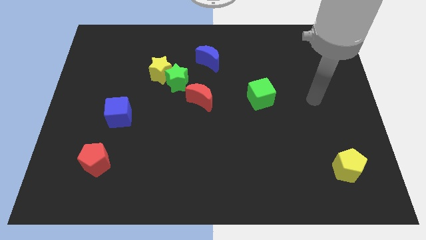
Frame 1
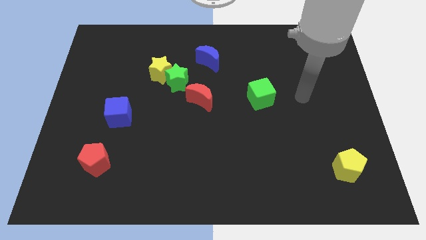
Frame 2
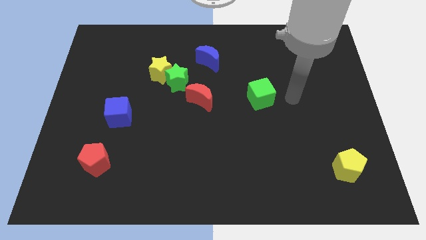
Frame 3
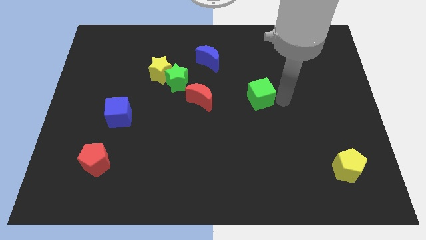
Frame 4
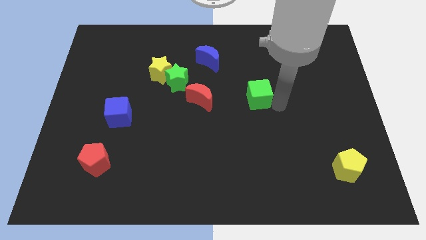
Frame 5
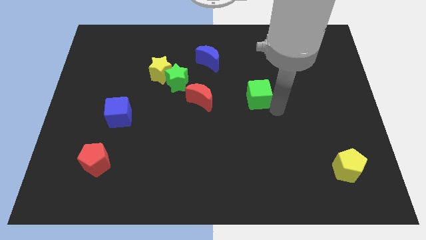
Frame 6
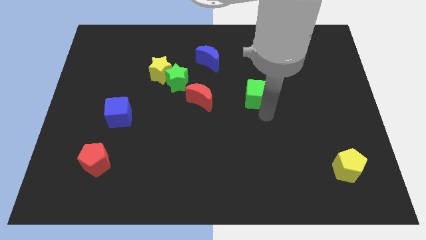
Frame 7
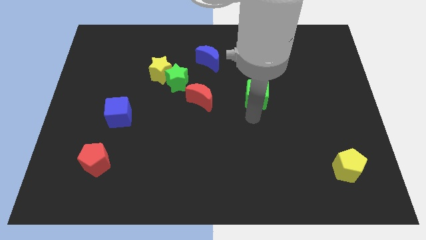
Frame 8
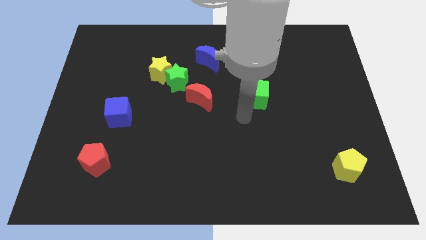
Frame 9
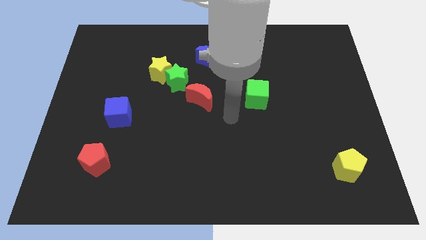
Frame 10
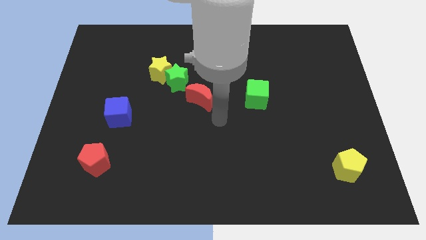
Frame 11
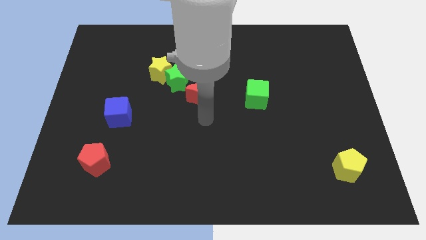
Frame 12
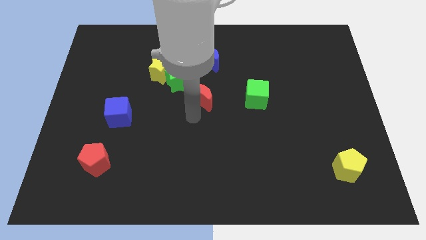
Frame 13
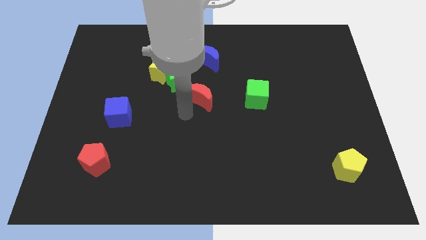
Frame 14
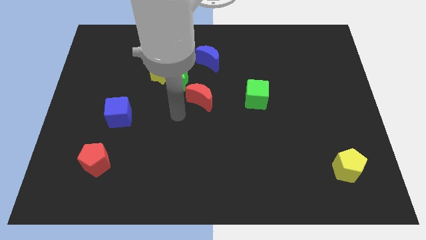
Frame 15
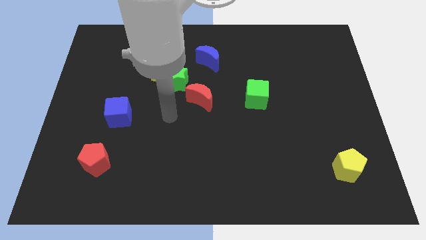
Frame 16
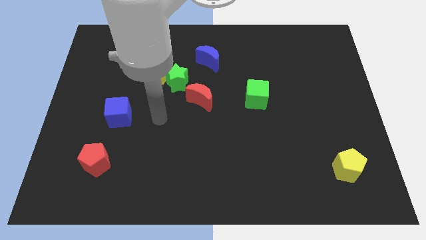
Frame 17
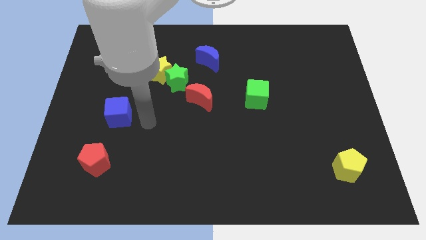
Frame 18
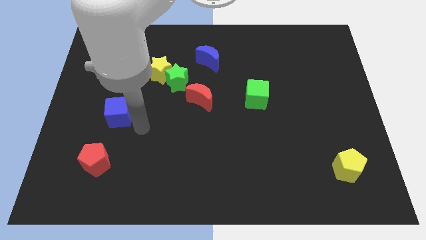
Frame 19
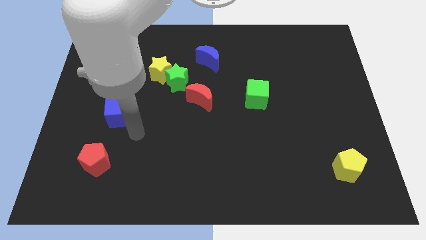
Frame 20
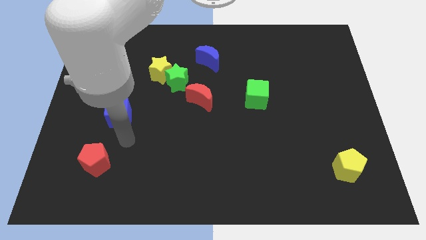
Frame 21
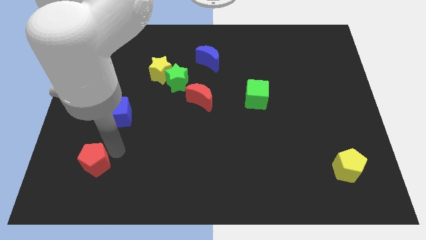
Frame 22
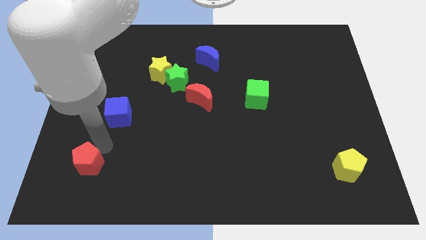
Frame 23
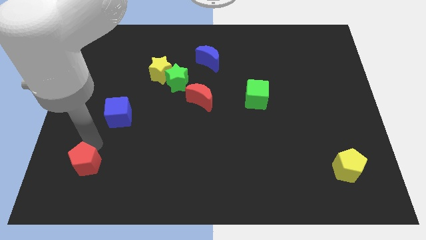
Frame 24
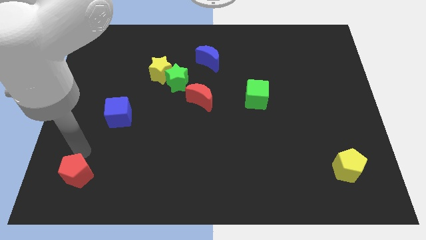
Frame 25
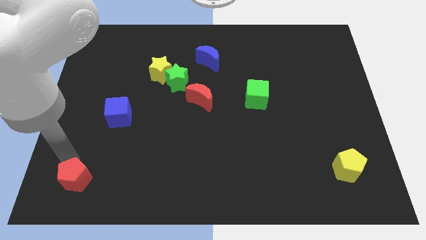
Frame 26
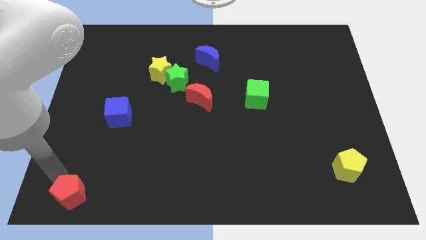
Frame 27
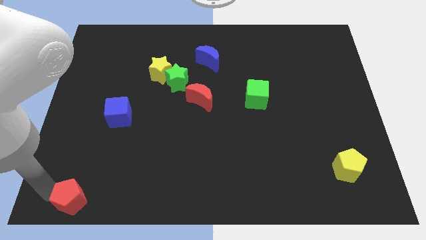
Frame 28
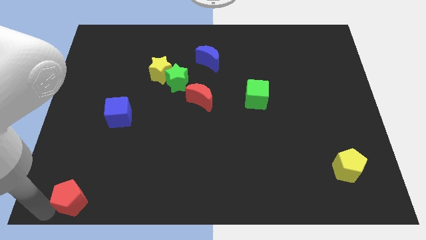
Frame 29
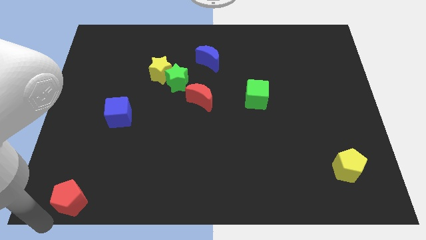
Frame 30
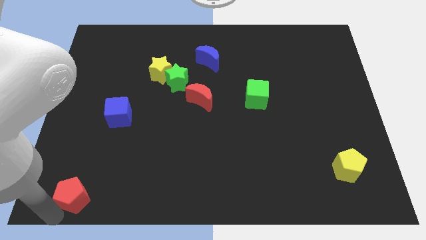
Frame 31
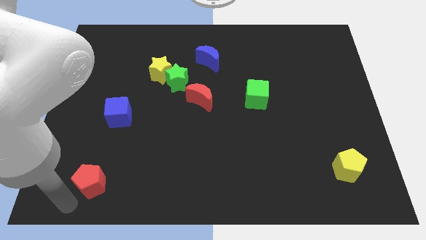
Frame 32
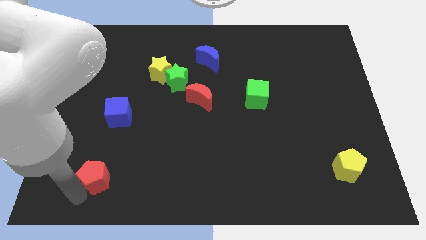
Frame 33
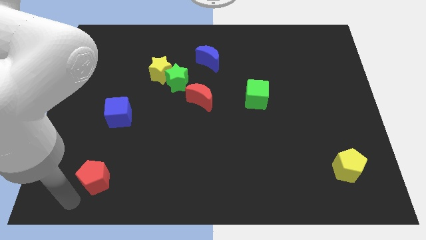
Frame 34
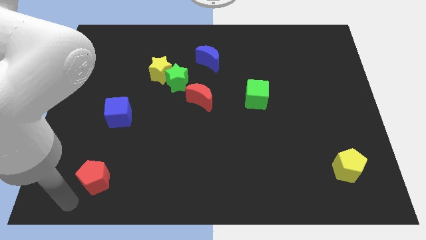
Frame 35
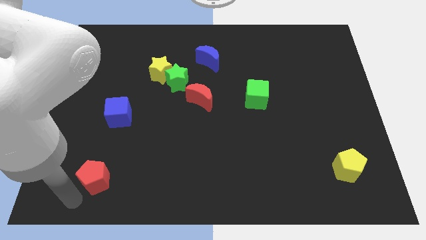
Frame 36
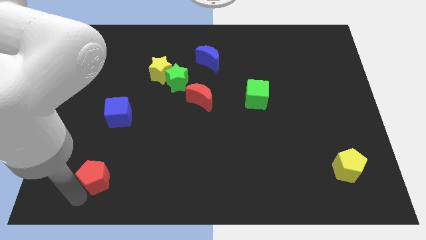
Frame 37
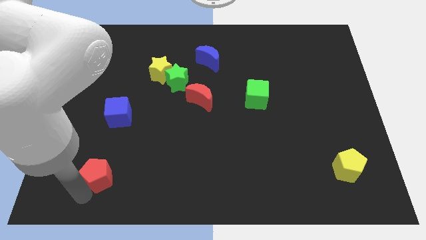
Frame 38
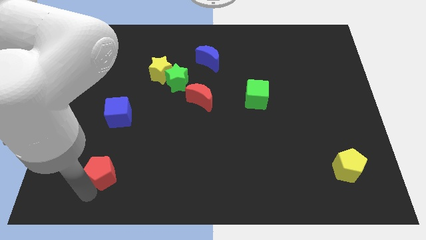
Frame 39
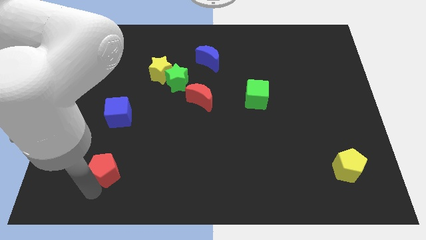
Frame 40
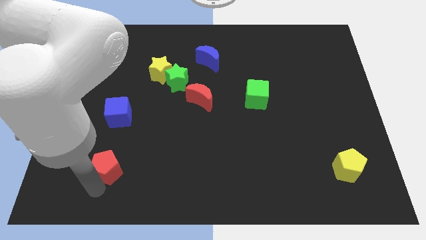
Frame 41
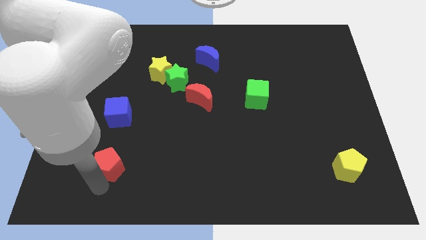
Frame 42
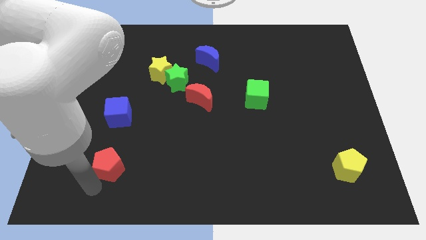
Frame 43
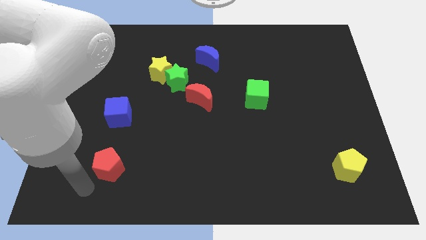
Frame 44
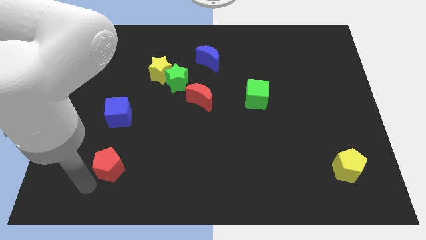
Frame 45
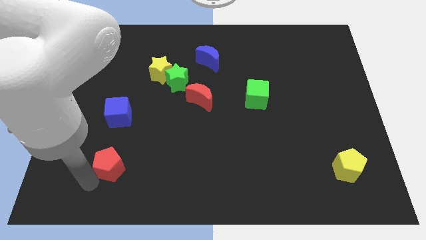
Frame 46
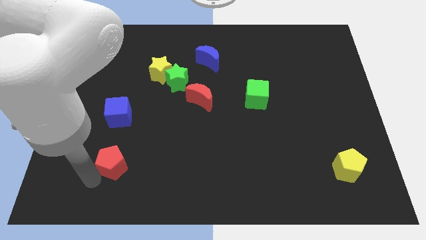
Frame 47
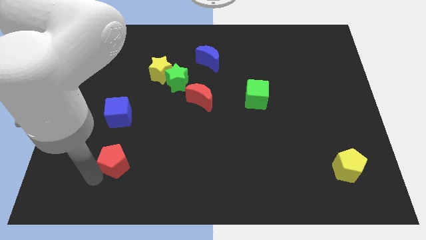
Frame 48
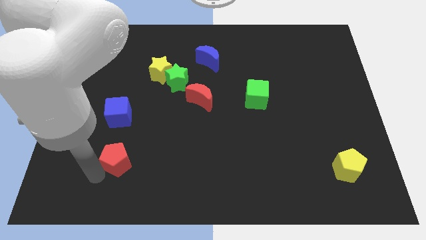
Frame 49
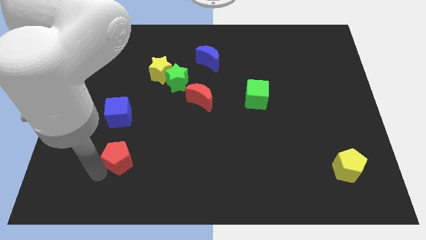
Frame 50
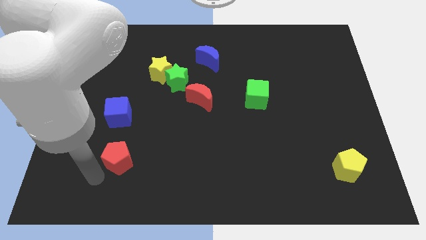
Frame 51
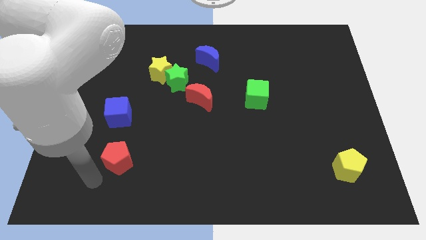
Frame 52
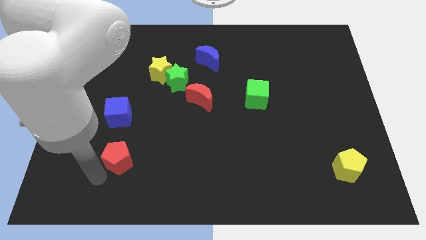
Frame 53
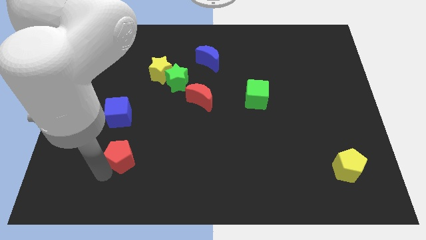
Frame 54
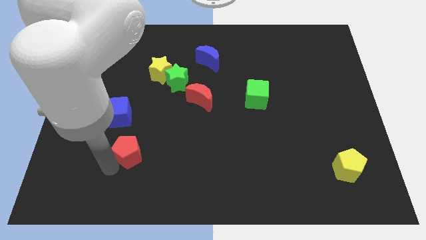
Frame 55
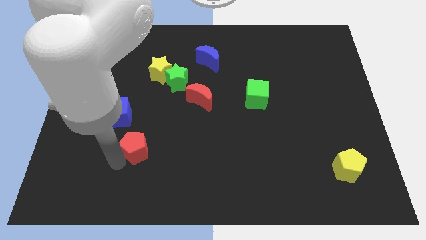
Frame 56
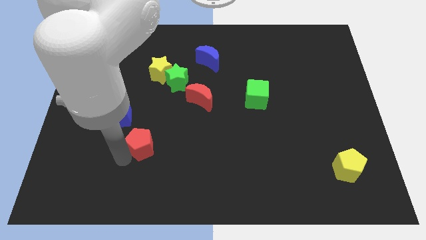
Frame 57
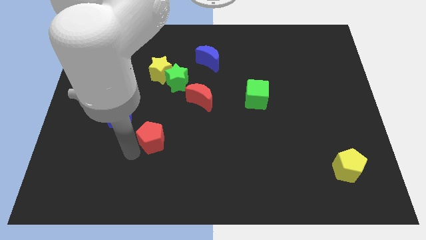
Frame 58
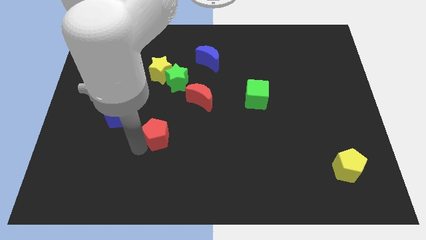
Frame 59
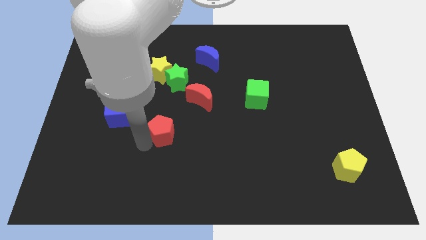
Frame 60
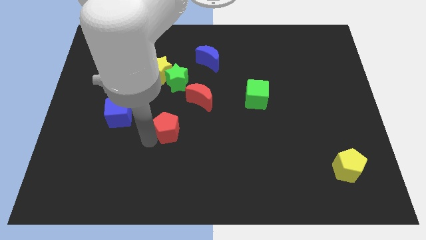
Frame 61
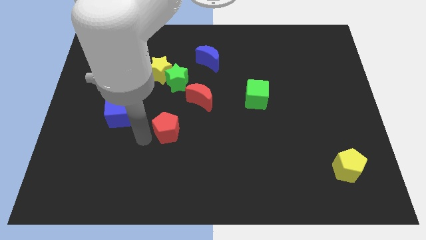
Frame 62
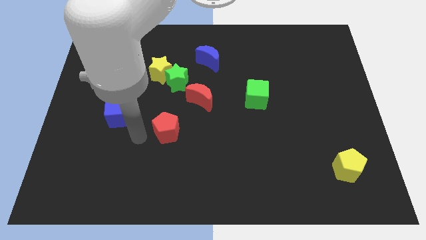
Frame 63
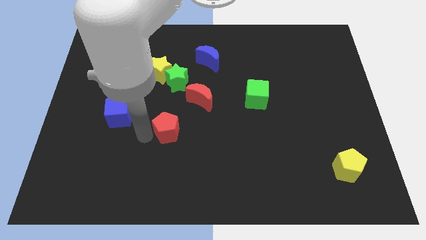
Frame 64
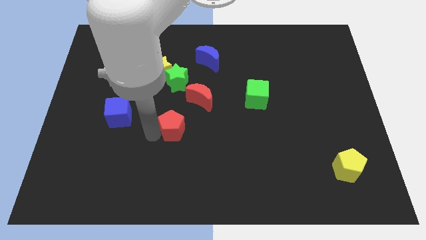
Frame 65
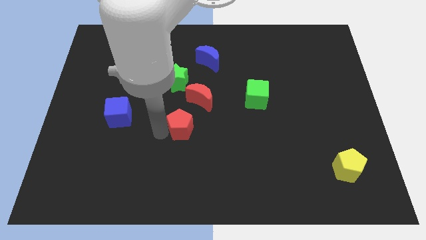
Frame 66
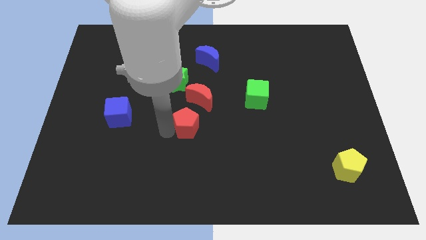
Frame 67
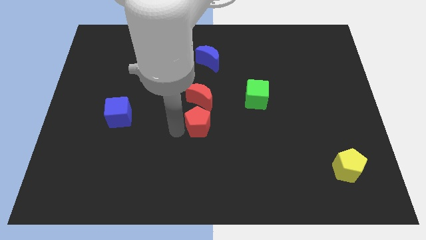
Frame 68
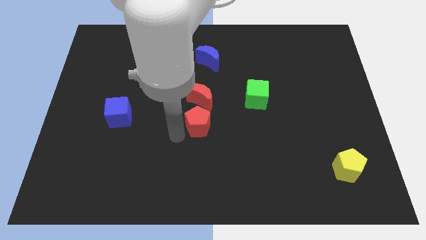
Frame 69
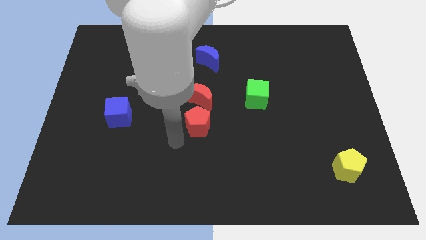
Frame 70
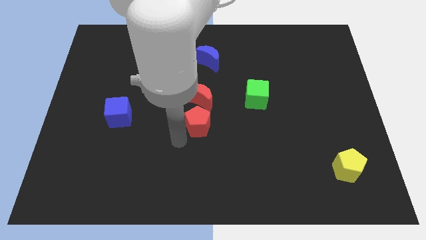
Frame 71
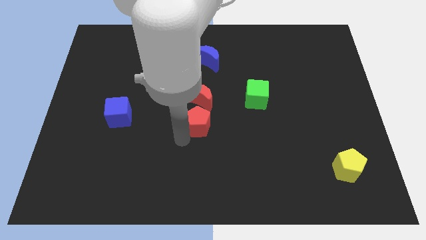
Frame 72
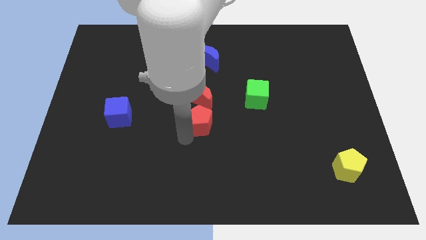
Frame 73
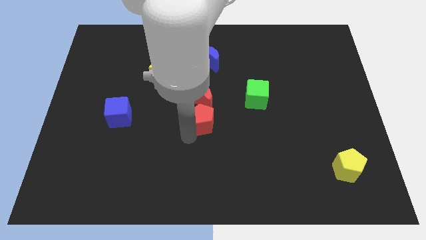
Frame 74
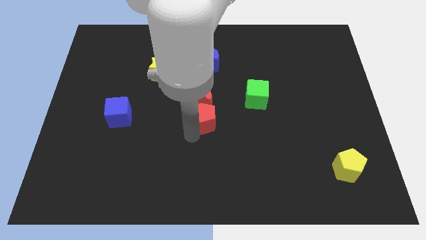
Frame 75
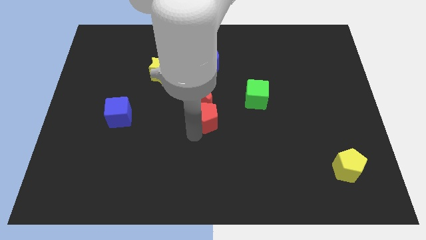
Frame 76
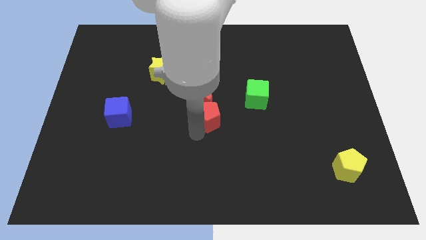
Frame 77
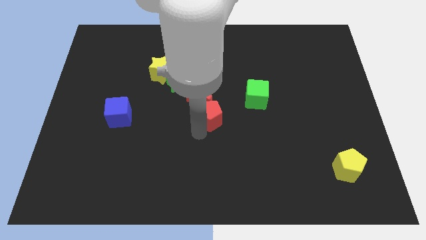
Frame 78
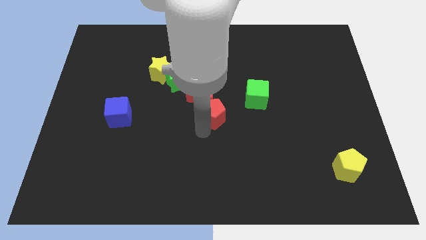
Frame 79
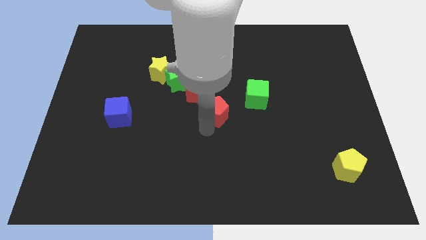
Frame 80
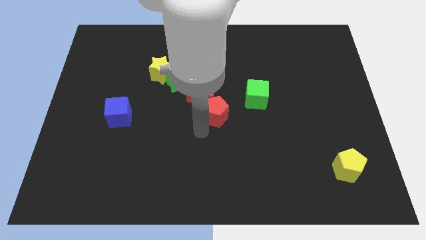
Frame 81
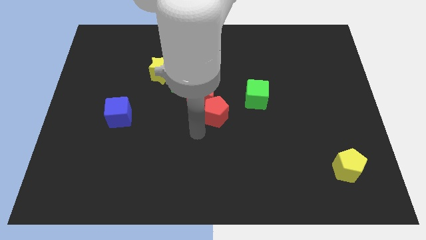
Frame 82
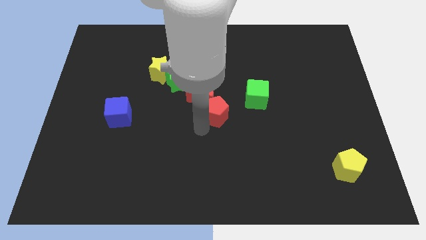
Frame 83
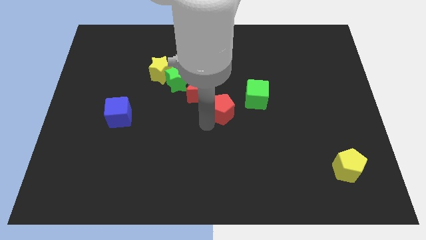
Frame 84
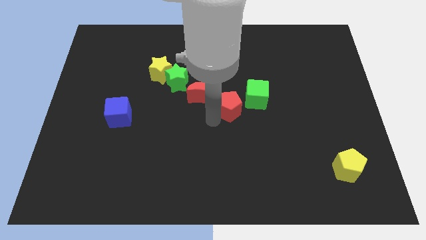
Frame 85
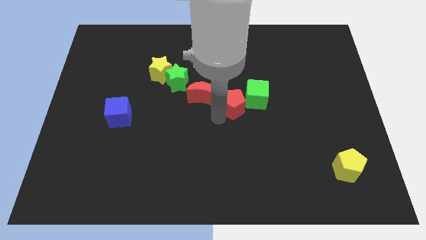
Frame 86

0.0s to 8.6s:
put the red pentagon to the green cube
